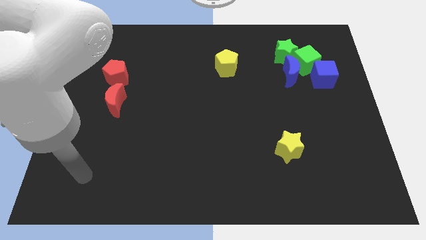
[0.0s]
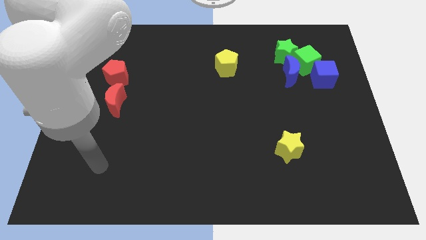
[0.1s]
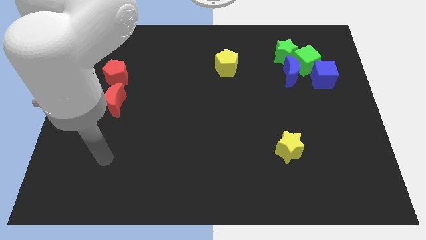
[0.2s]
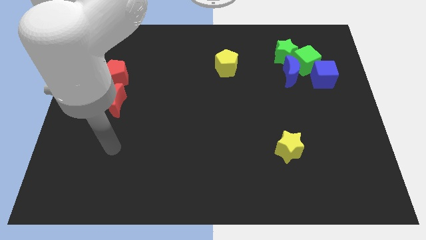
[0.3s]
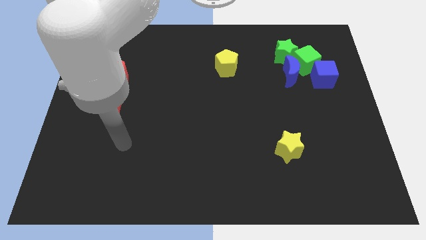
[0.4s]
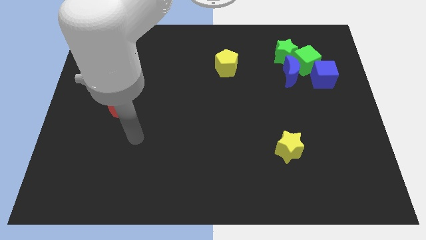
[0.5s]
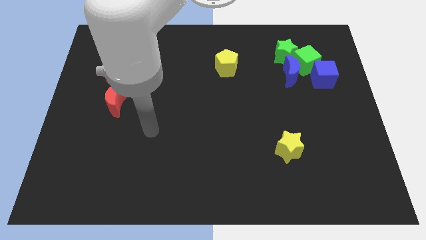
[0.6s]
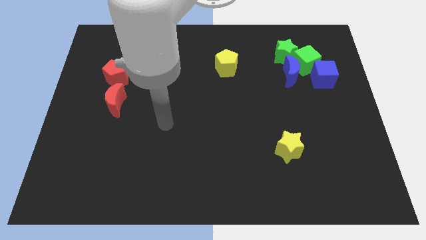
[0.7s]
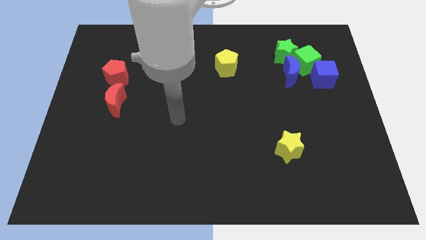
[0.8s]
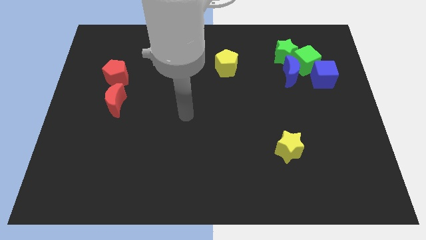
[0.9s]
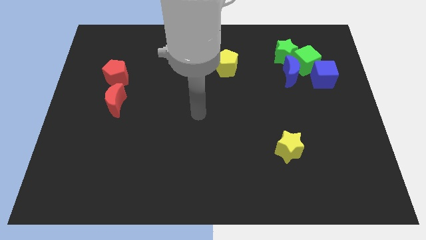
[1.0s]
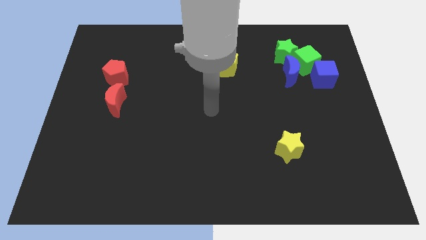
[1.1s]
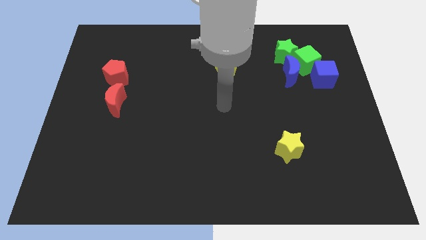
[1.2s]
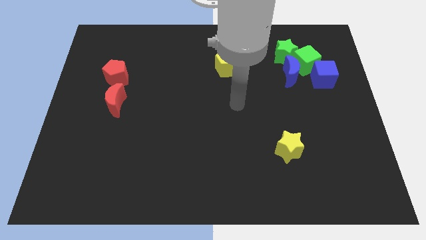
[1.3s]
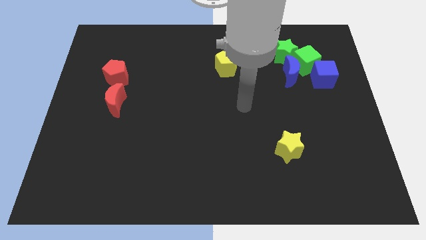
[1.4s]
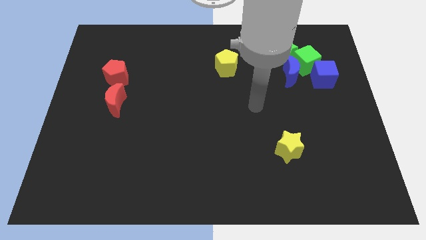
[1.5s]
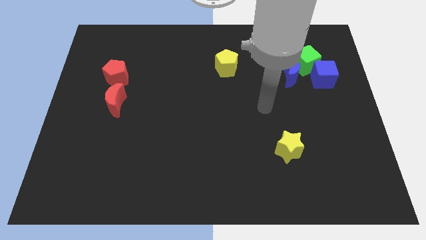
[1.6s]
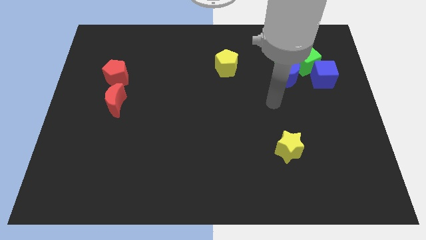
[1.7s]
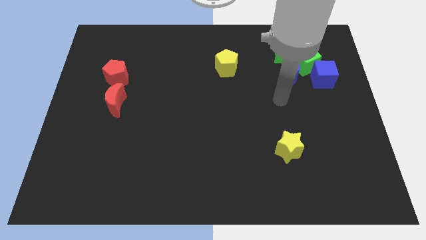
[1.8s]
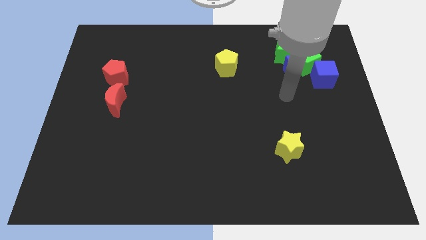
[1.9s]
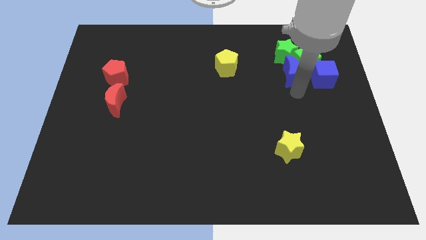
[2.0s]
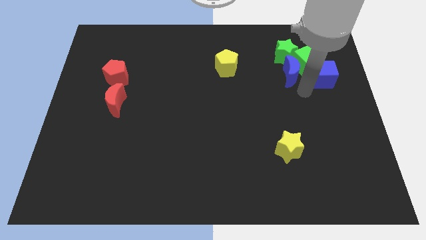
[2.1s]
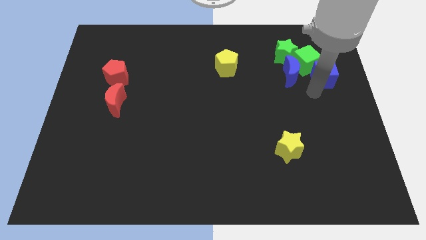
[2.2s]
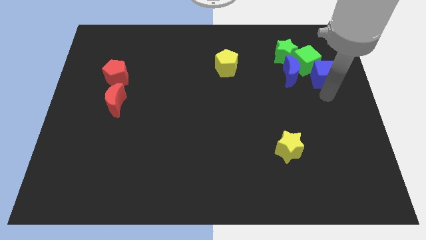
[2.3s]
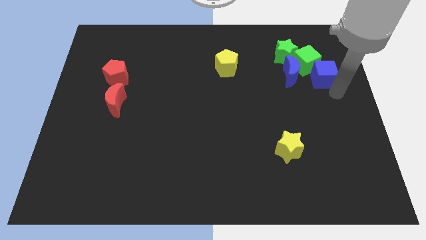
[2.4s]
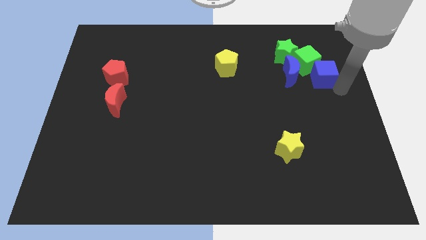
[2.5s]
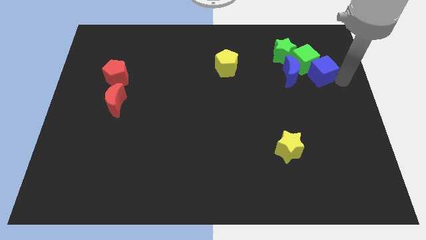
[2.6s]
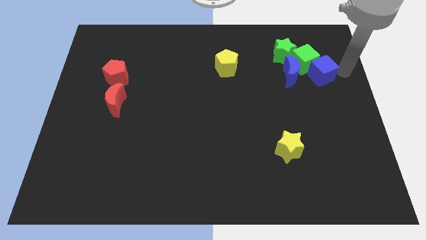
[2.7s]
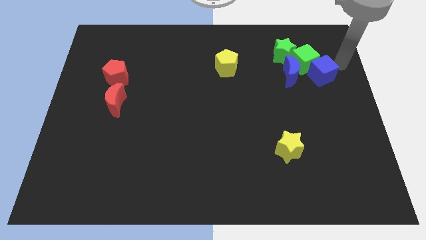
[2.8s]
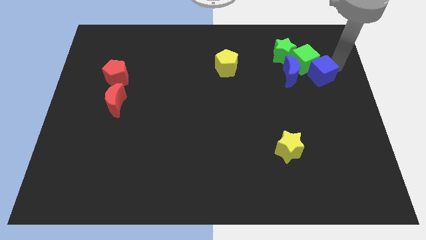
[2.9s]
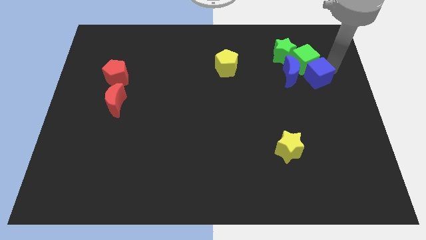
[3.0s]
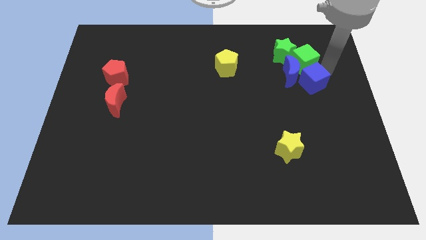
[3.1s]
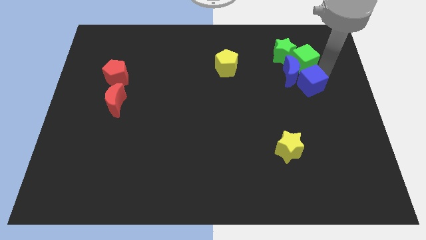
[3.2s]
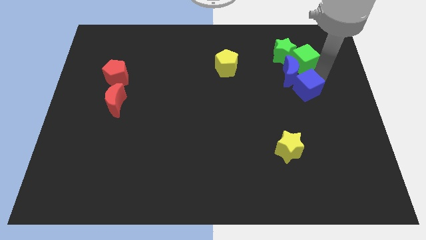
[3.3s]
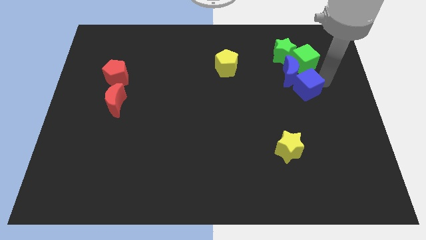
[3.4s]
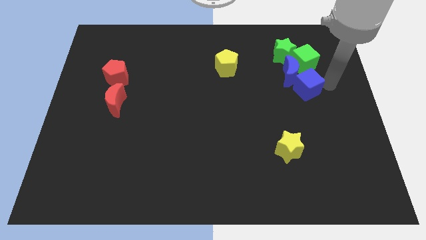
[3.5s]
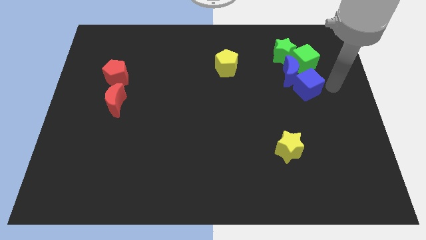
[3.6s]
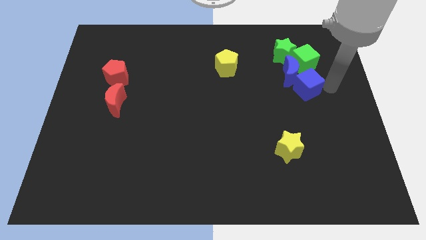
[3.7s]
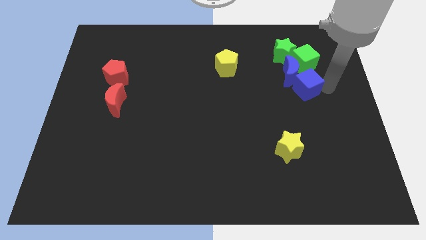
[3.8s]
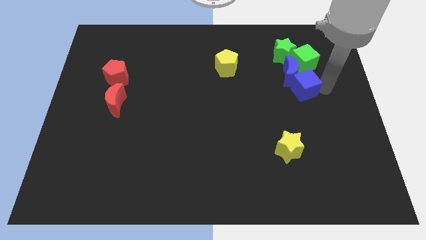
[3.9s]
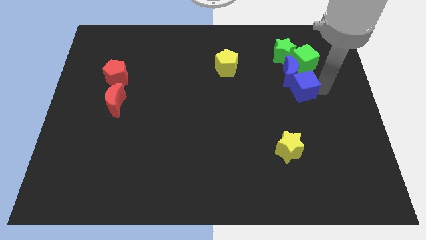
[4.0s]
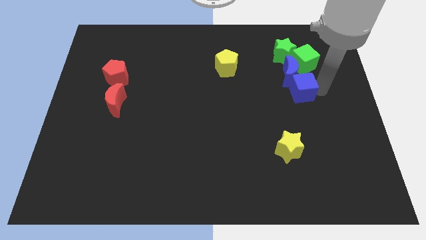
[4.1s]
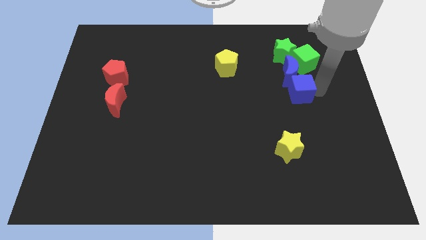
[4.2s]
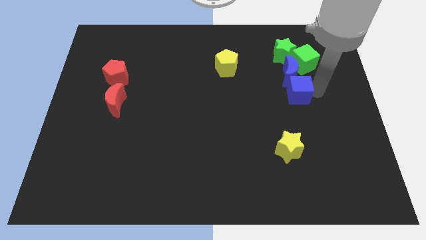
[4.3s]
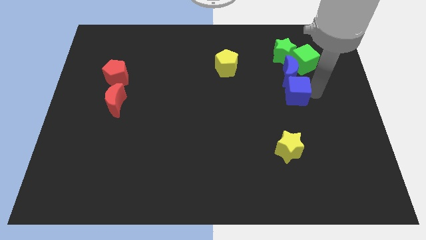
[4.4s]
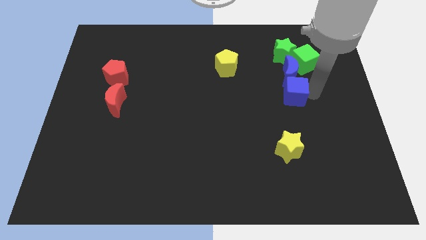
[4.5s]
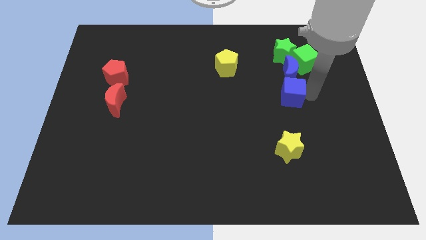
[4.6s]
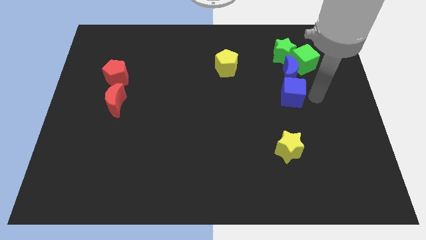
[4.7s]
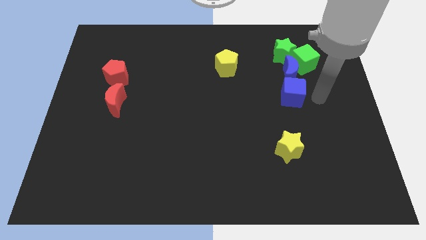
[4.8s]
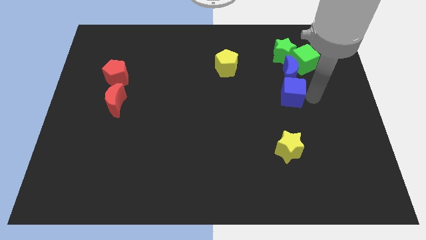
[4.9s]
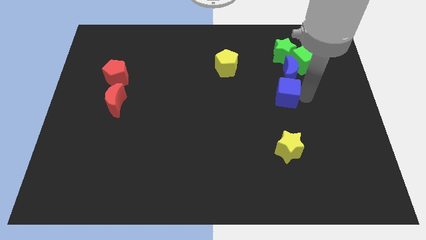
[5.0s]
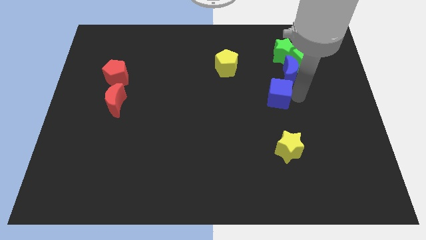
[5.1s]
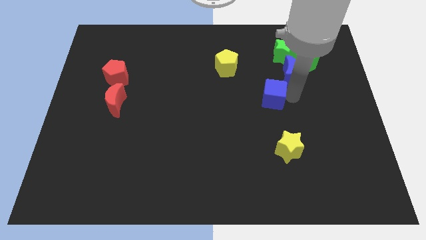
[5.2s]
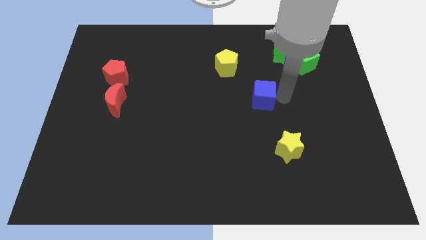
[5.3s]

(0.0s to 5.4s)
move the blue cube to the middle

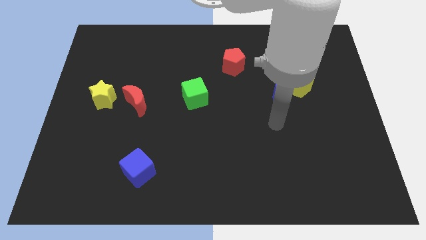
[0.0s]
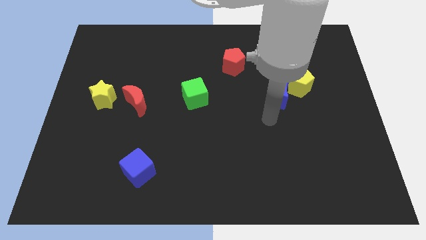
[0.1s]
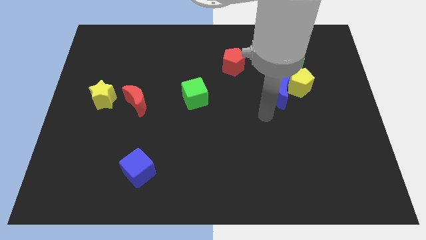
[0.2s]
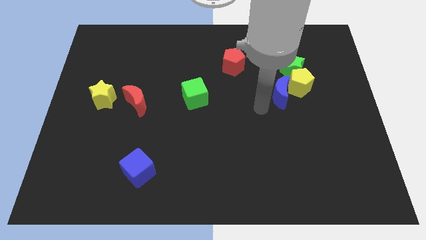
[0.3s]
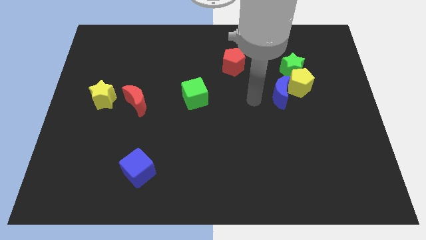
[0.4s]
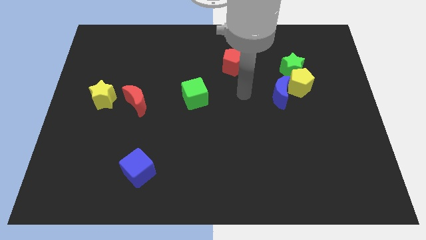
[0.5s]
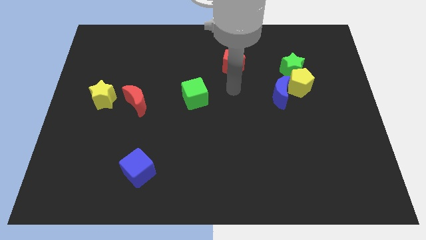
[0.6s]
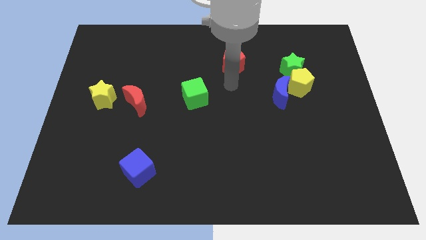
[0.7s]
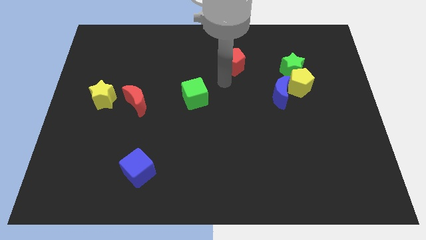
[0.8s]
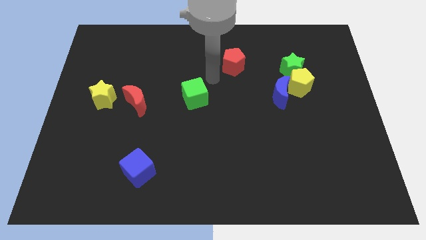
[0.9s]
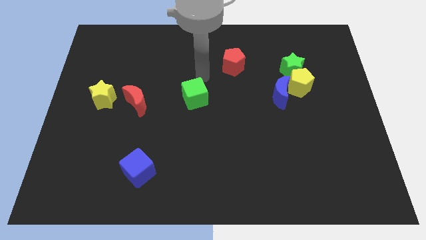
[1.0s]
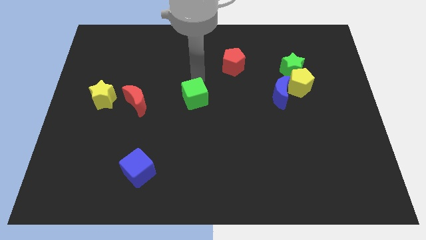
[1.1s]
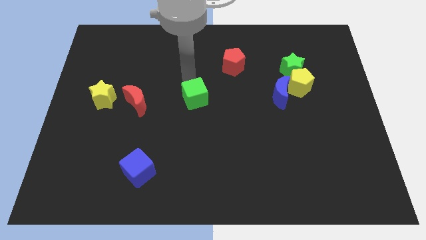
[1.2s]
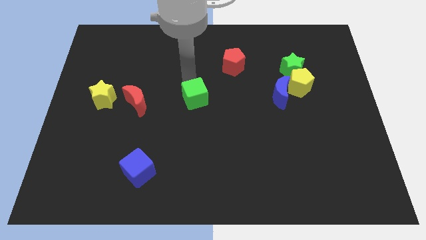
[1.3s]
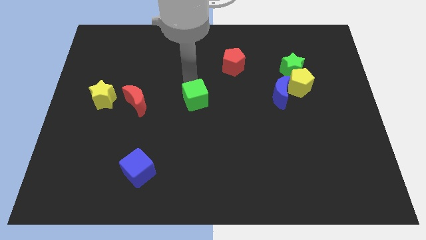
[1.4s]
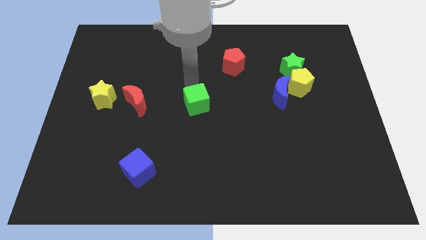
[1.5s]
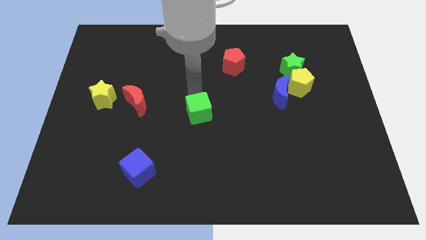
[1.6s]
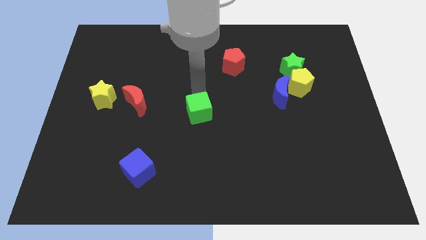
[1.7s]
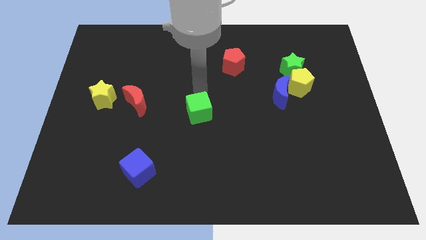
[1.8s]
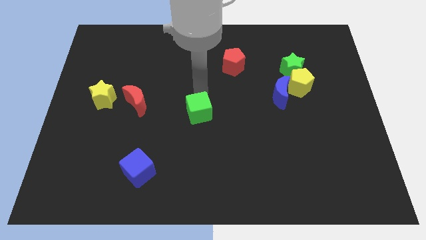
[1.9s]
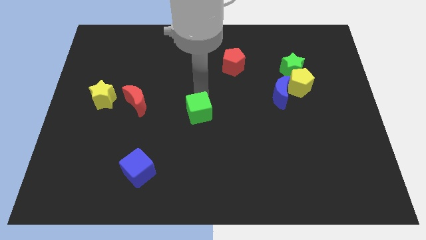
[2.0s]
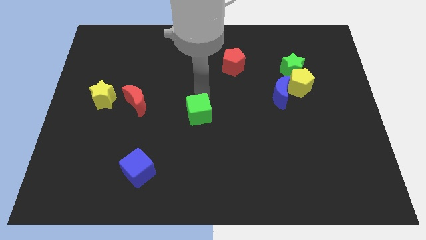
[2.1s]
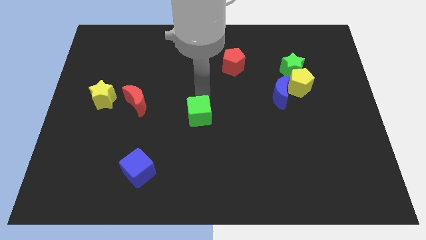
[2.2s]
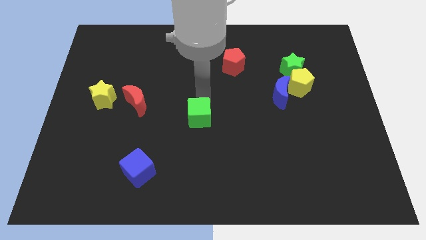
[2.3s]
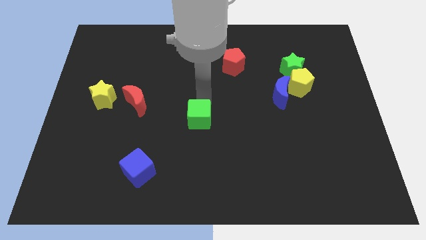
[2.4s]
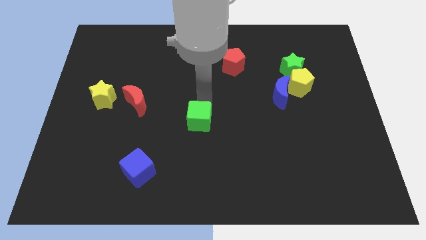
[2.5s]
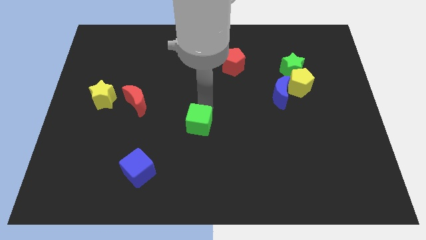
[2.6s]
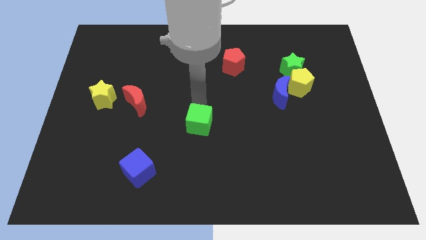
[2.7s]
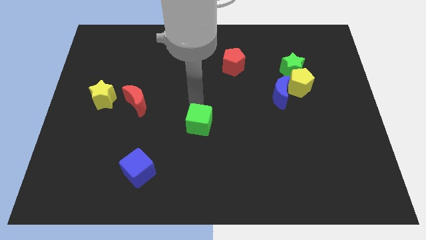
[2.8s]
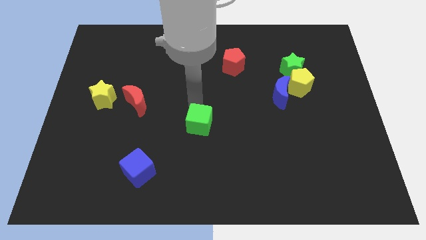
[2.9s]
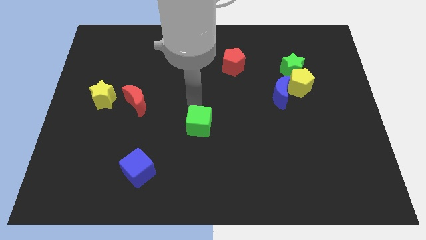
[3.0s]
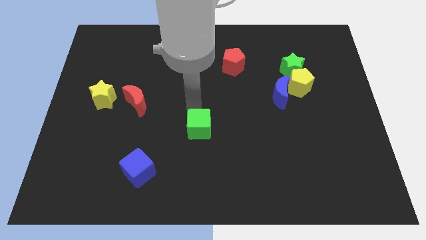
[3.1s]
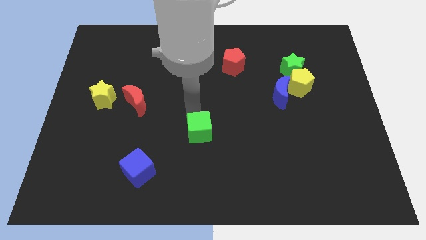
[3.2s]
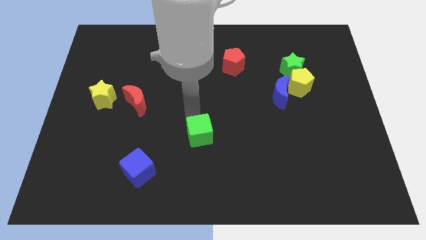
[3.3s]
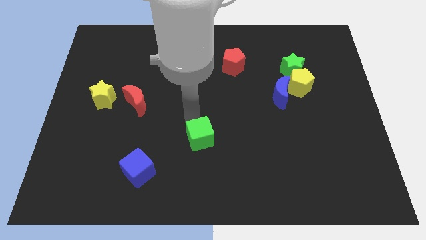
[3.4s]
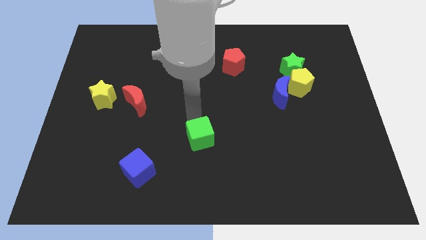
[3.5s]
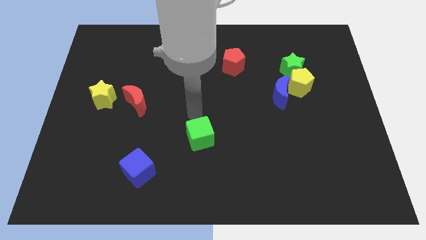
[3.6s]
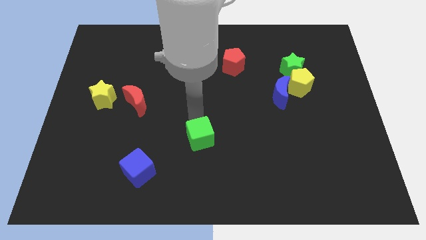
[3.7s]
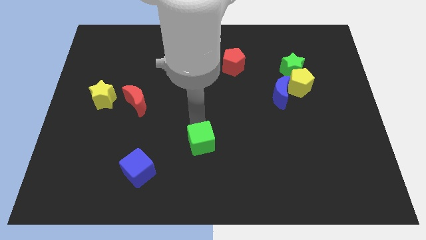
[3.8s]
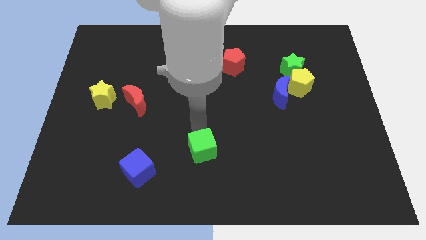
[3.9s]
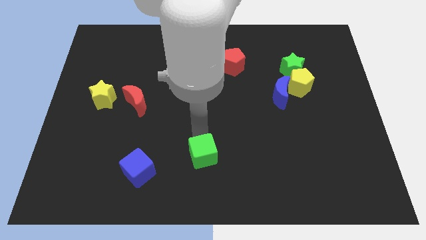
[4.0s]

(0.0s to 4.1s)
put the green cube to the bottom side
